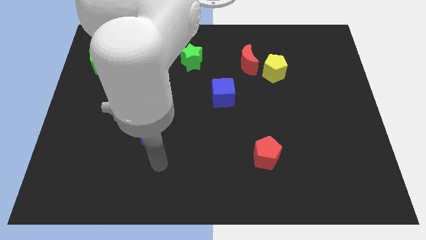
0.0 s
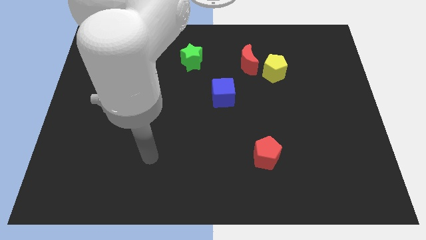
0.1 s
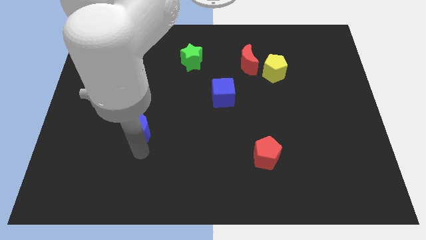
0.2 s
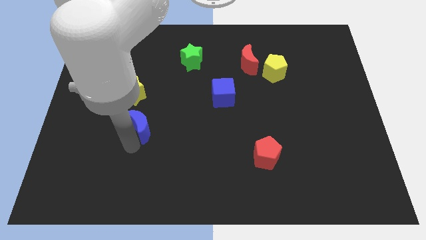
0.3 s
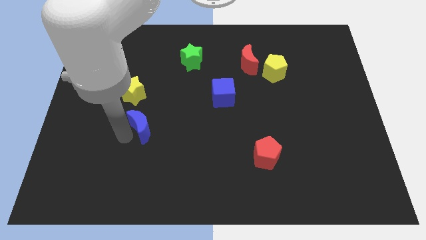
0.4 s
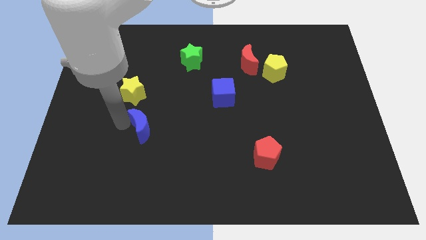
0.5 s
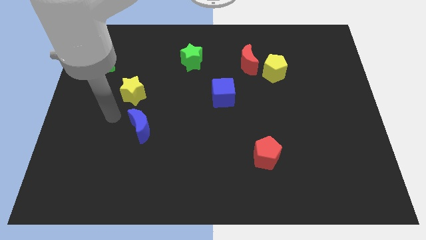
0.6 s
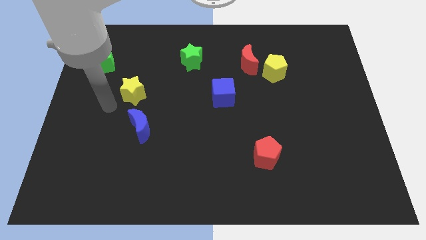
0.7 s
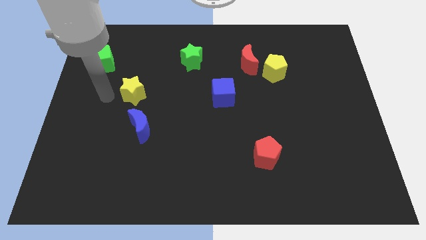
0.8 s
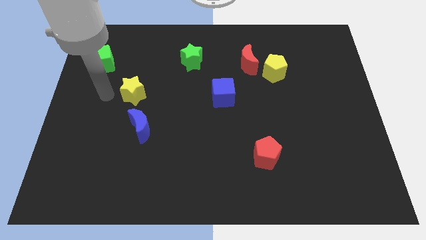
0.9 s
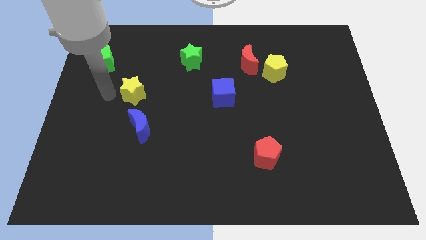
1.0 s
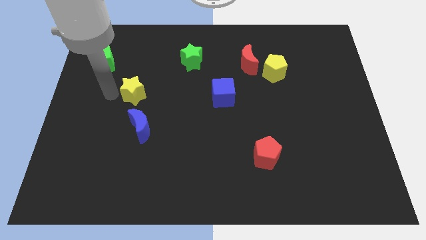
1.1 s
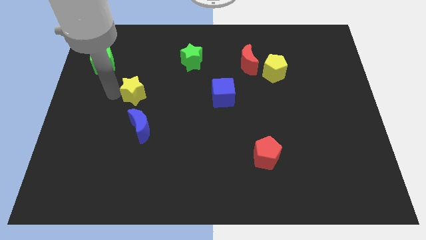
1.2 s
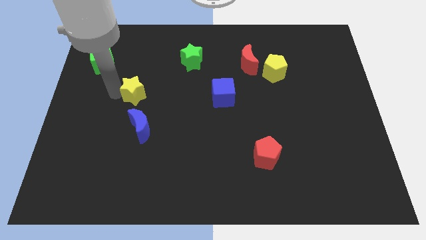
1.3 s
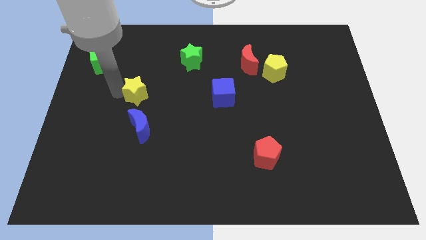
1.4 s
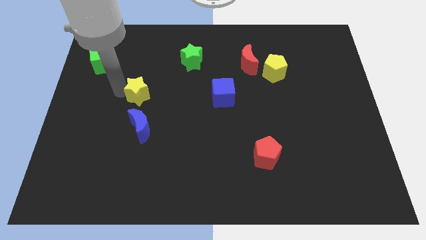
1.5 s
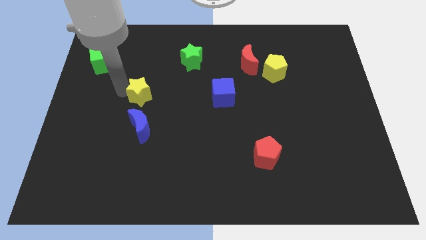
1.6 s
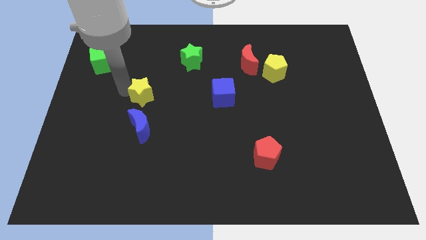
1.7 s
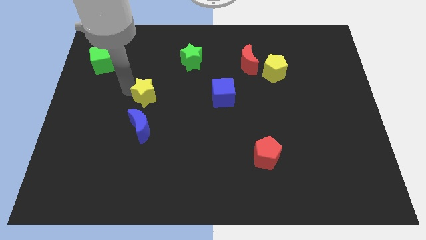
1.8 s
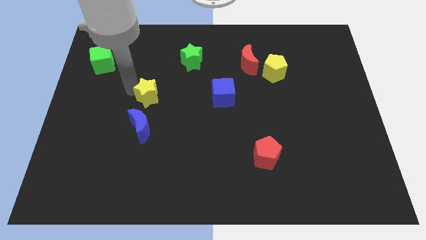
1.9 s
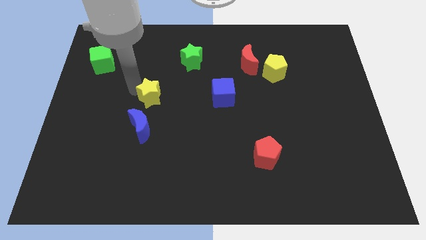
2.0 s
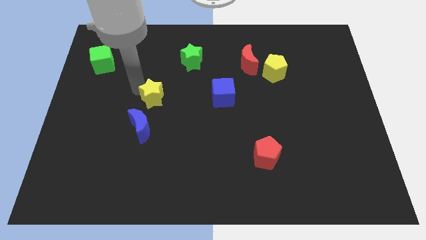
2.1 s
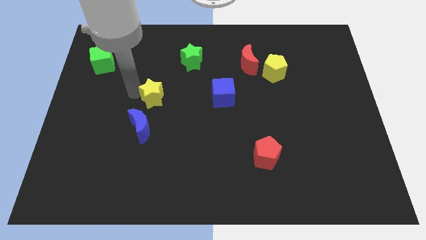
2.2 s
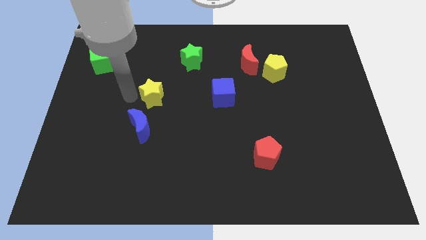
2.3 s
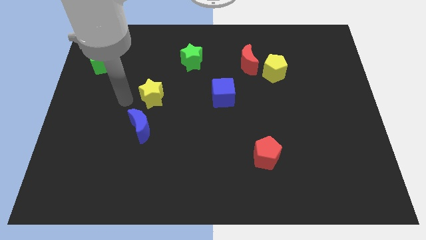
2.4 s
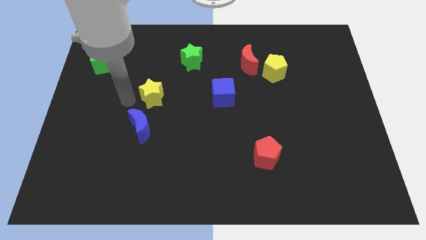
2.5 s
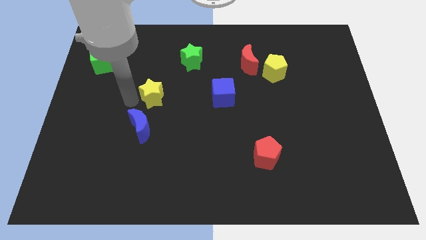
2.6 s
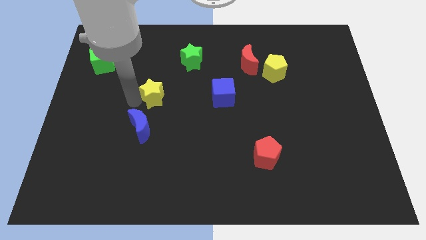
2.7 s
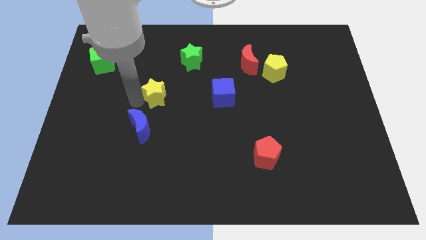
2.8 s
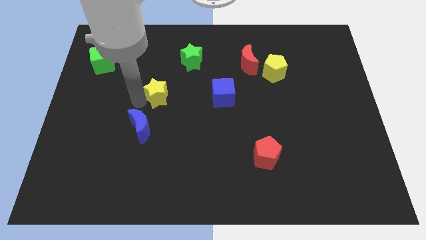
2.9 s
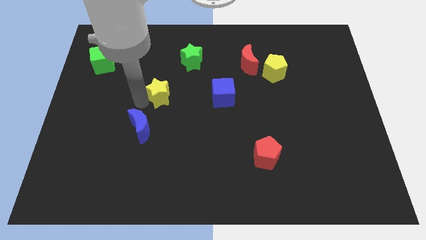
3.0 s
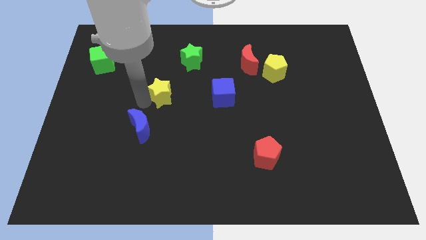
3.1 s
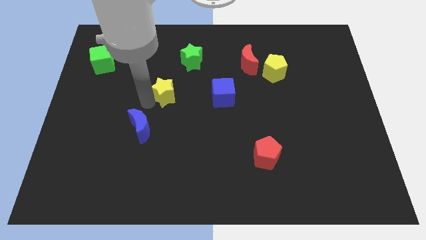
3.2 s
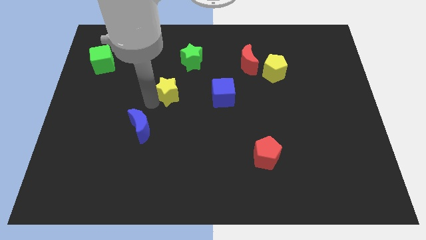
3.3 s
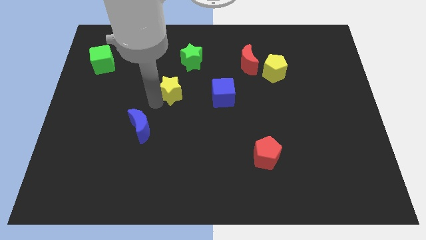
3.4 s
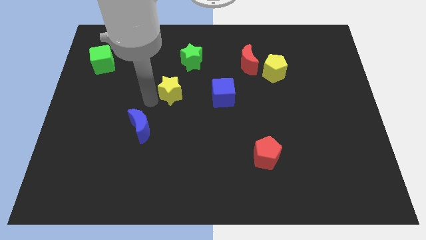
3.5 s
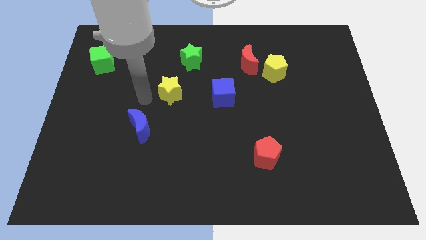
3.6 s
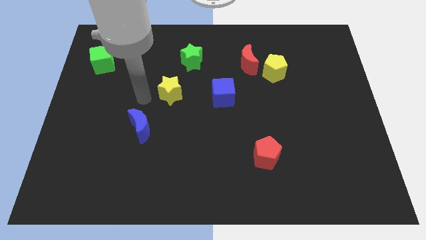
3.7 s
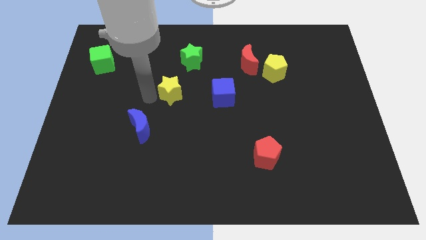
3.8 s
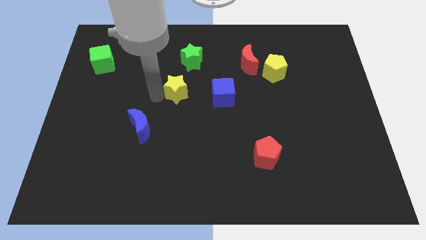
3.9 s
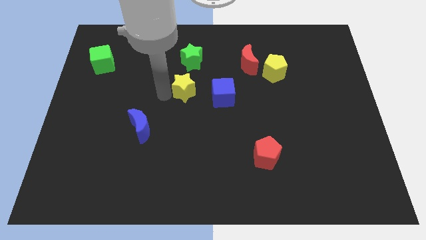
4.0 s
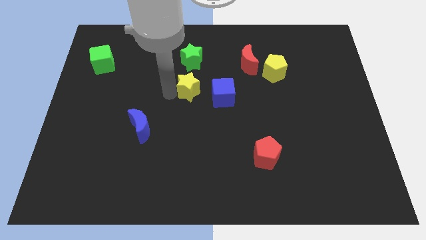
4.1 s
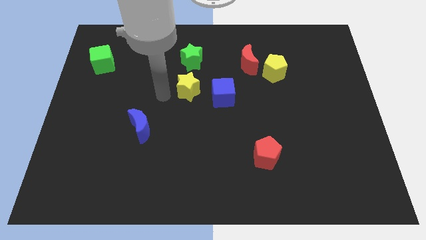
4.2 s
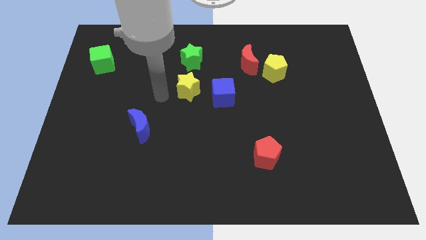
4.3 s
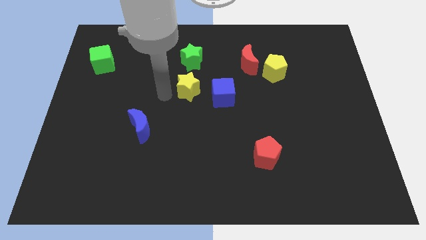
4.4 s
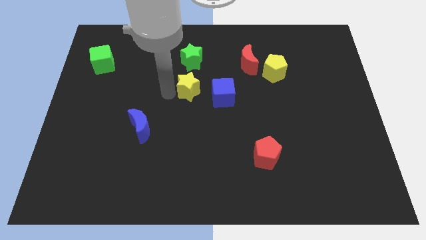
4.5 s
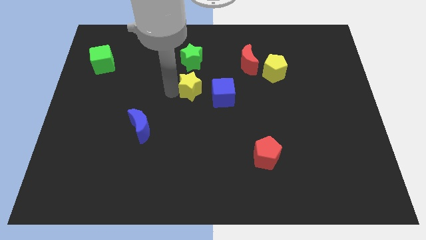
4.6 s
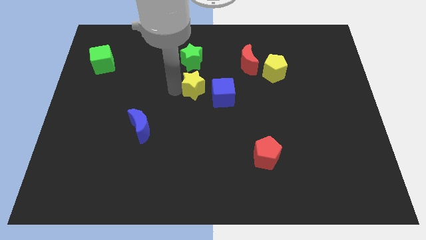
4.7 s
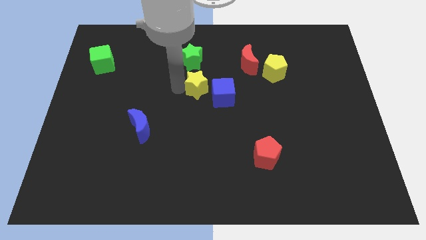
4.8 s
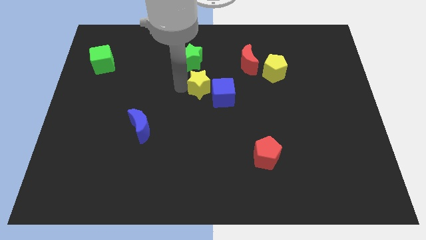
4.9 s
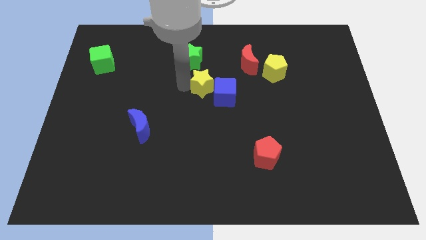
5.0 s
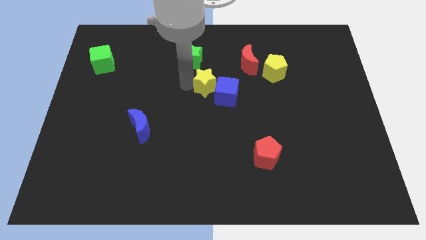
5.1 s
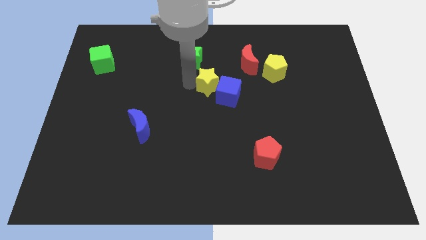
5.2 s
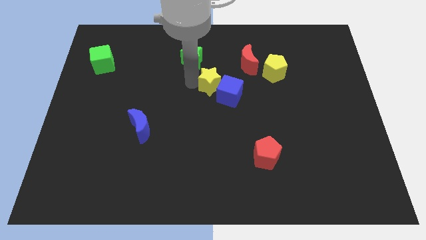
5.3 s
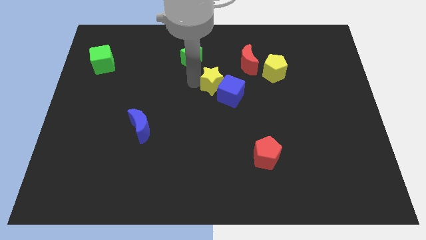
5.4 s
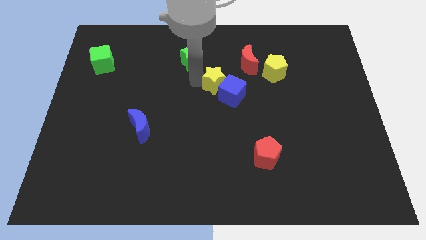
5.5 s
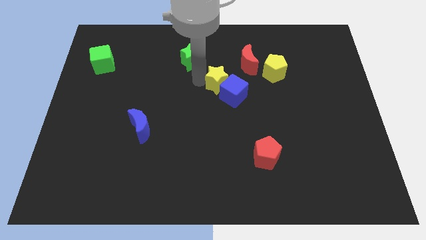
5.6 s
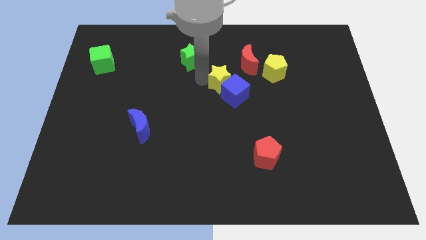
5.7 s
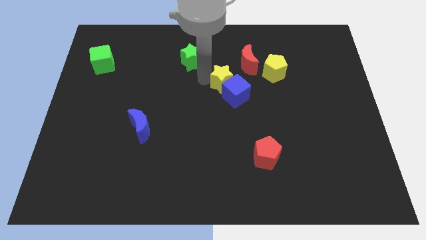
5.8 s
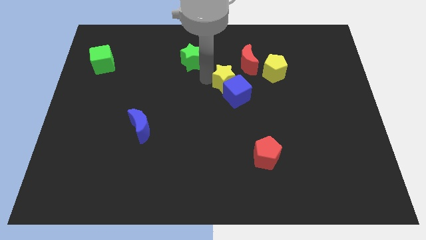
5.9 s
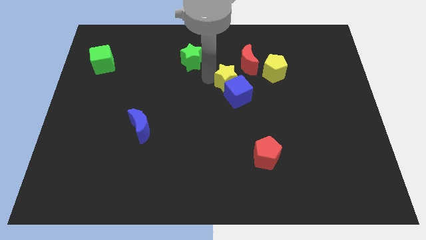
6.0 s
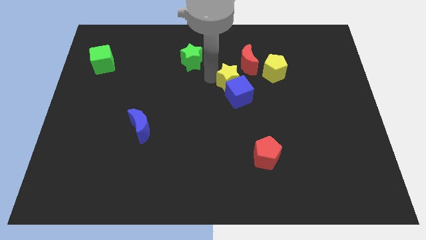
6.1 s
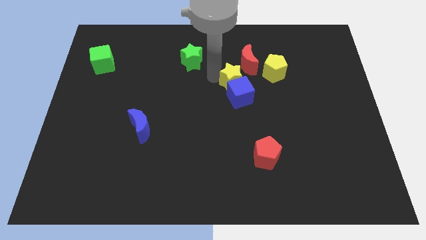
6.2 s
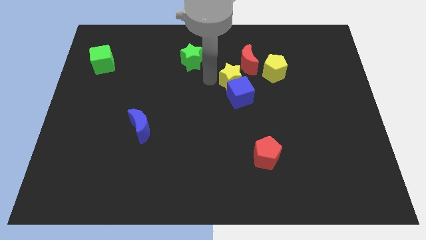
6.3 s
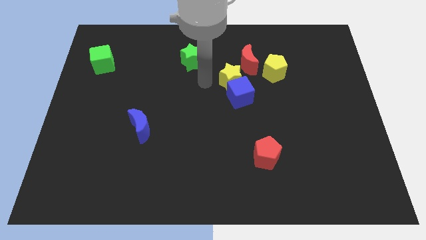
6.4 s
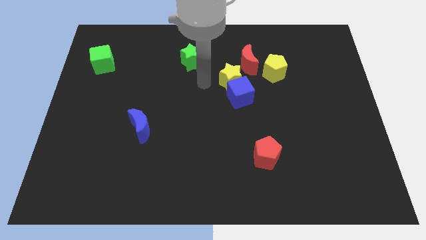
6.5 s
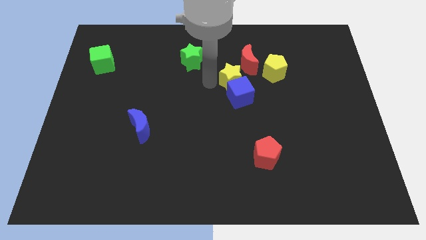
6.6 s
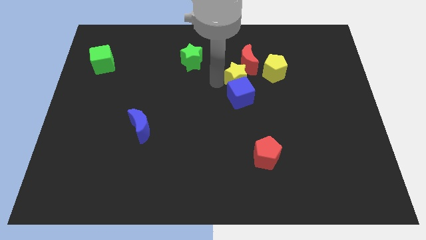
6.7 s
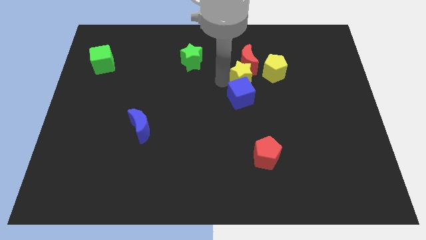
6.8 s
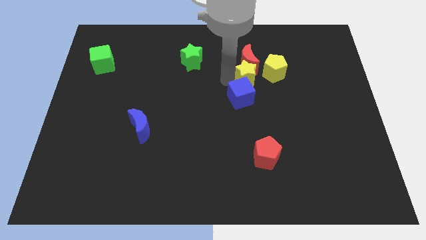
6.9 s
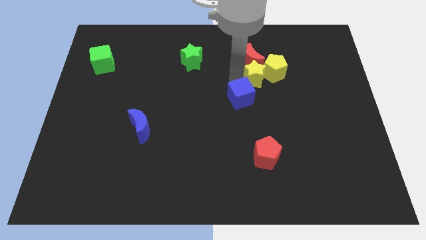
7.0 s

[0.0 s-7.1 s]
push the yellow star towards the yellow pentagon

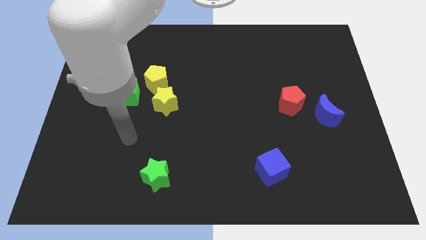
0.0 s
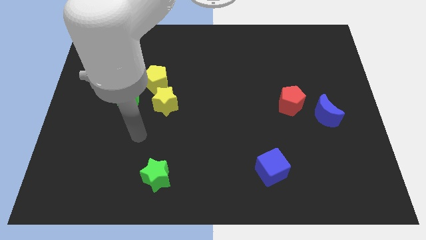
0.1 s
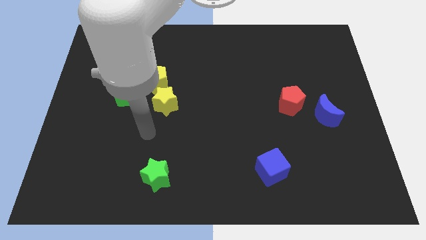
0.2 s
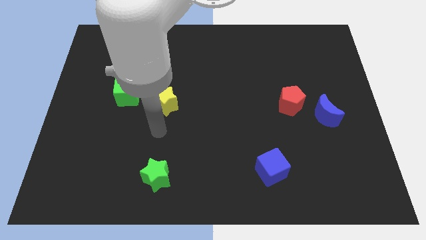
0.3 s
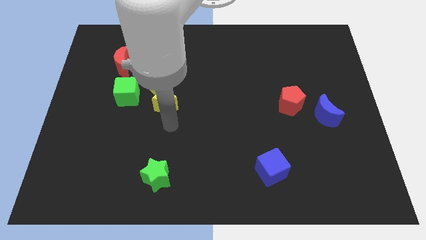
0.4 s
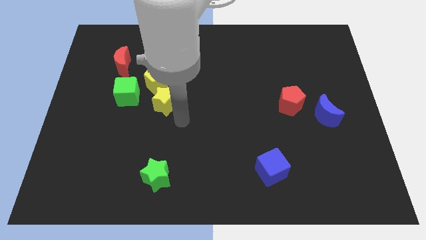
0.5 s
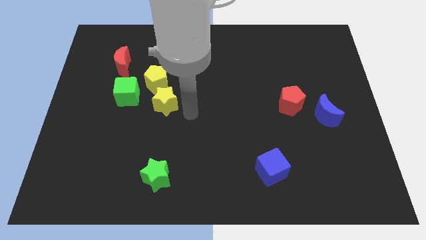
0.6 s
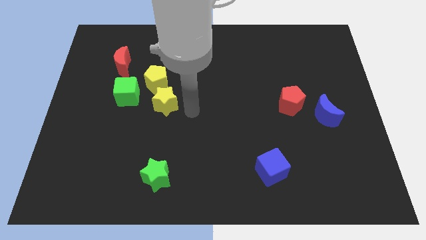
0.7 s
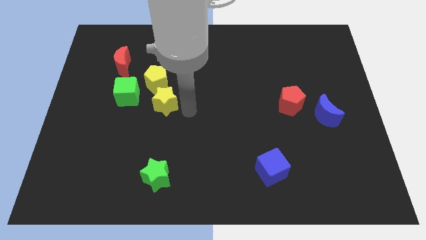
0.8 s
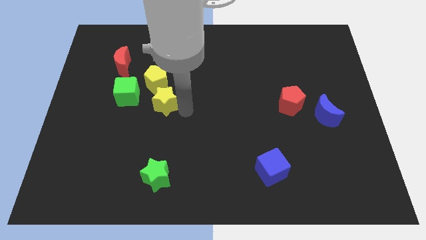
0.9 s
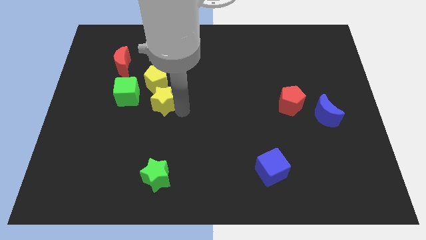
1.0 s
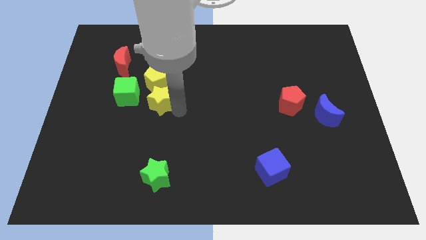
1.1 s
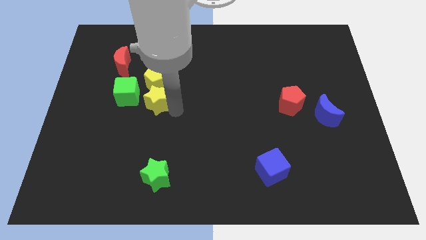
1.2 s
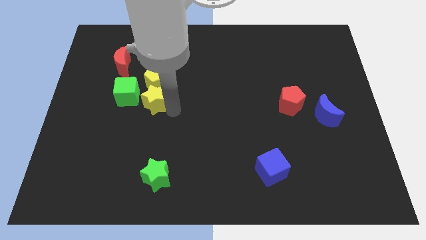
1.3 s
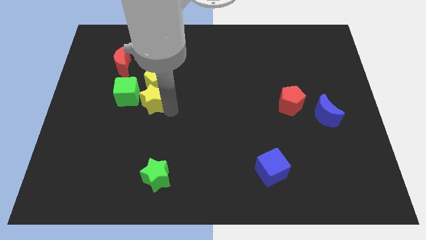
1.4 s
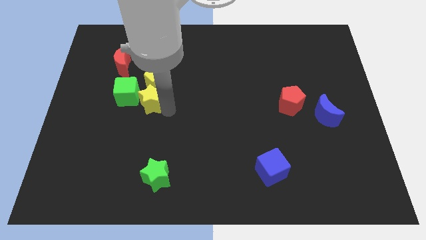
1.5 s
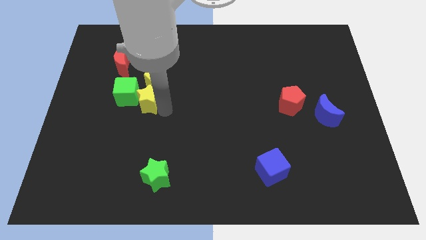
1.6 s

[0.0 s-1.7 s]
put the yellow star to the green cube
